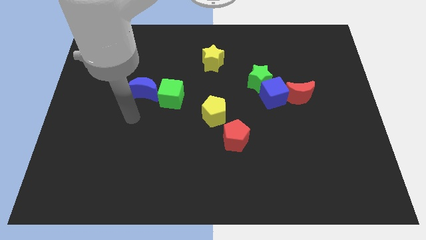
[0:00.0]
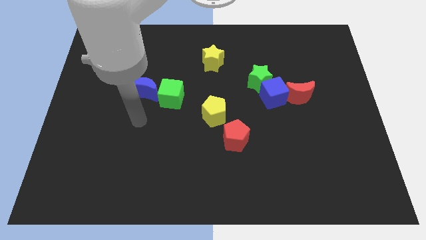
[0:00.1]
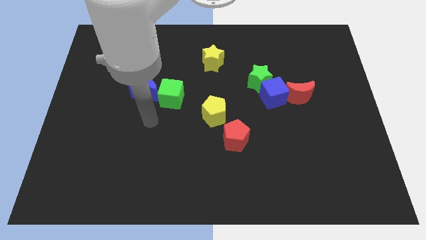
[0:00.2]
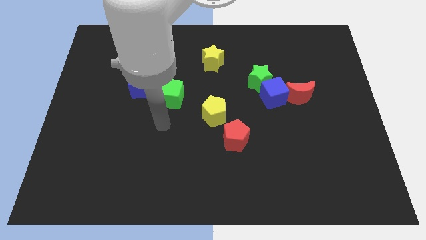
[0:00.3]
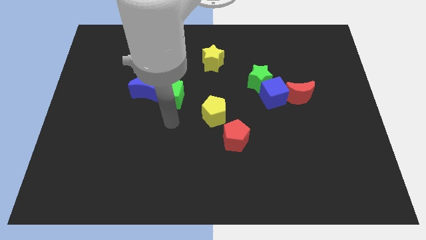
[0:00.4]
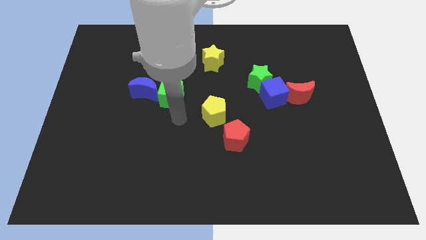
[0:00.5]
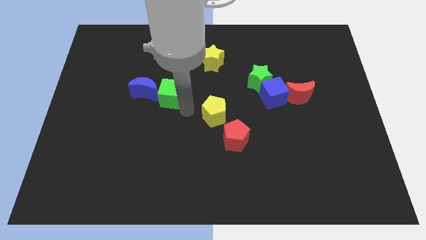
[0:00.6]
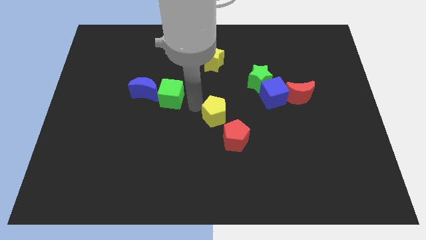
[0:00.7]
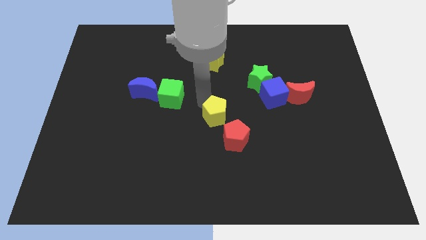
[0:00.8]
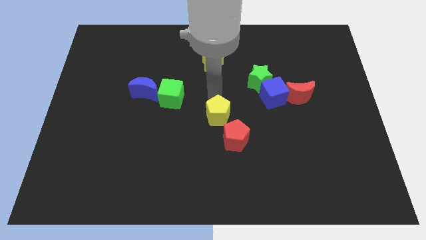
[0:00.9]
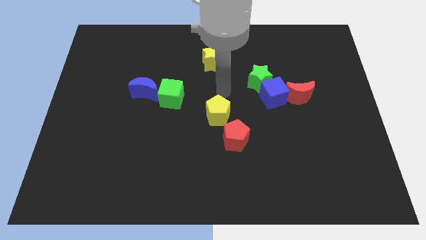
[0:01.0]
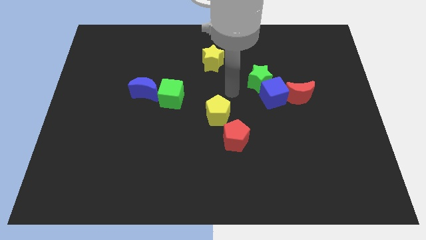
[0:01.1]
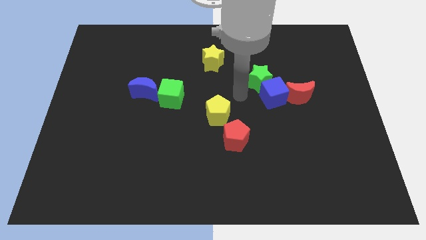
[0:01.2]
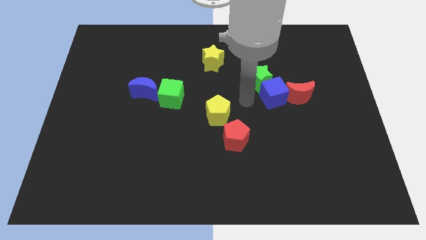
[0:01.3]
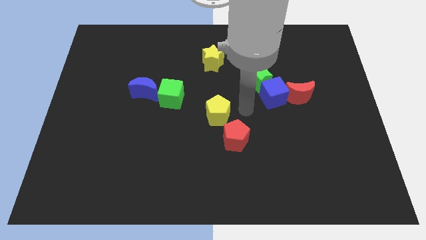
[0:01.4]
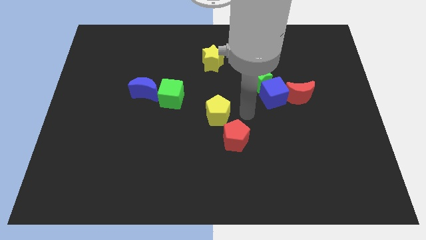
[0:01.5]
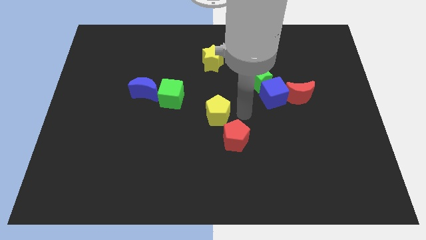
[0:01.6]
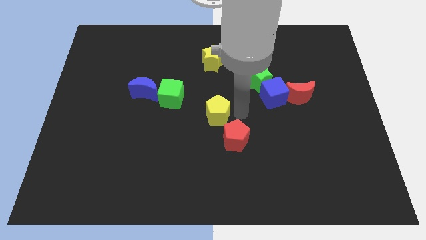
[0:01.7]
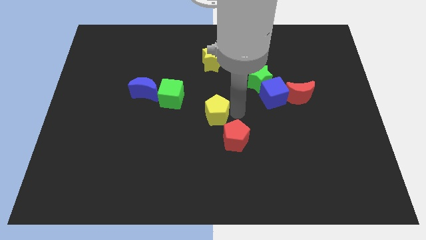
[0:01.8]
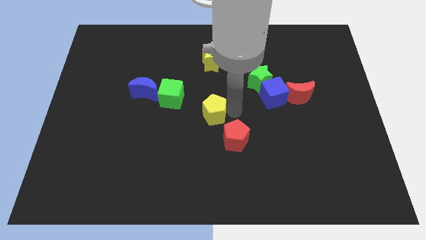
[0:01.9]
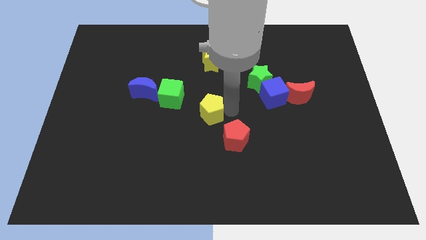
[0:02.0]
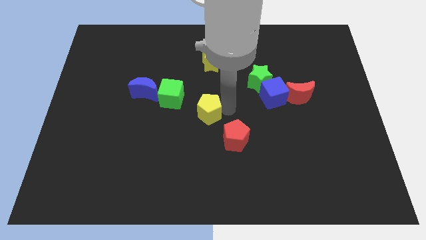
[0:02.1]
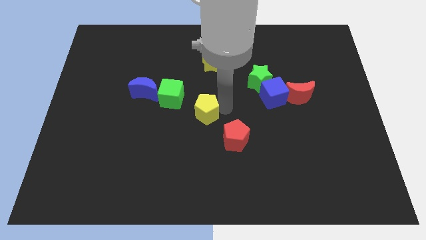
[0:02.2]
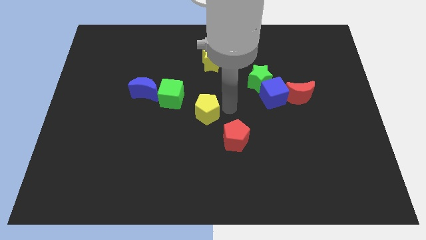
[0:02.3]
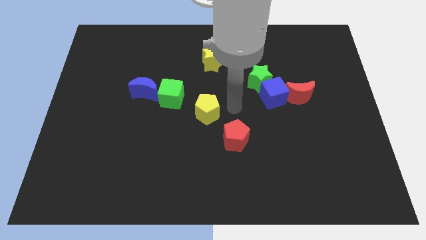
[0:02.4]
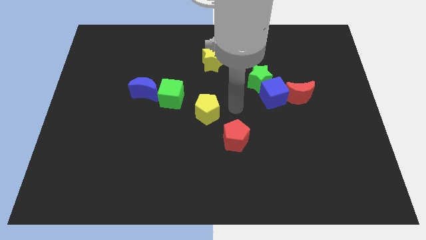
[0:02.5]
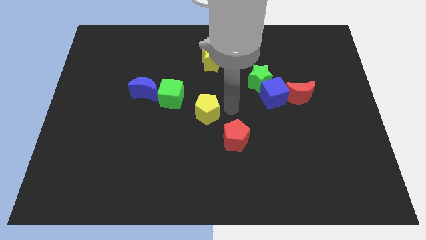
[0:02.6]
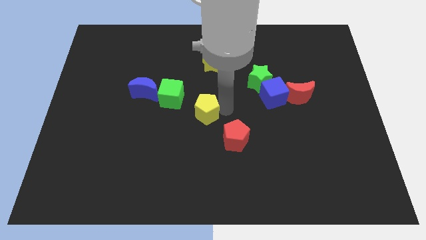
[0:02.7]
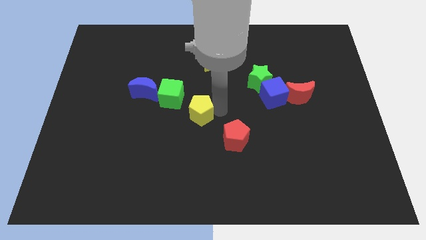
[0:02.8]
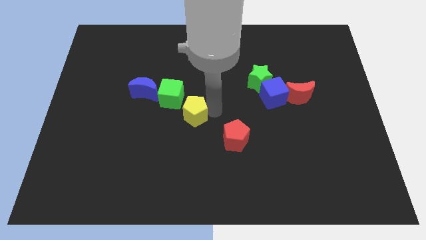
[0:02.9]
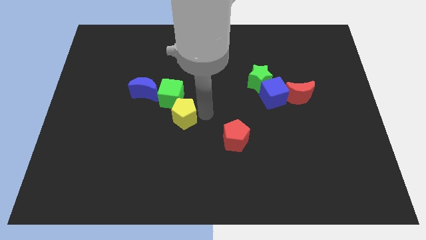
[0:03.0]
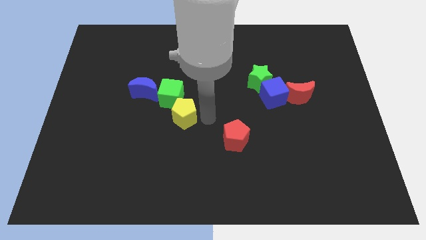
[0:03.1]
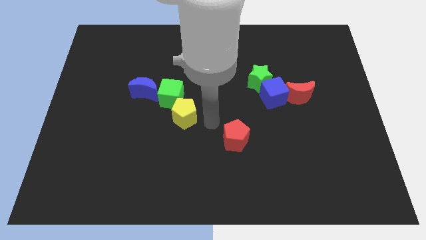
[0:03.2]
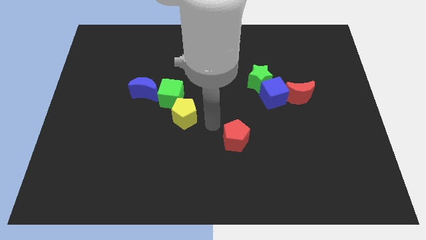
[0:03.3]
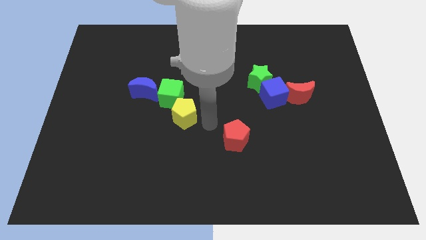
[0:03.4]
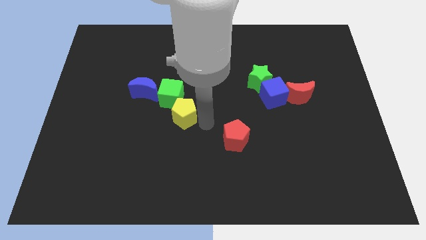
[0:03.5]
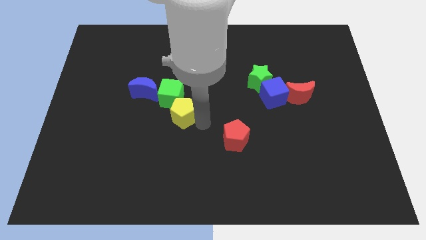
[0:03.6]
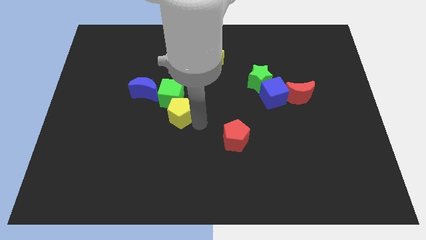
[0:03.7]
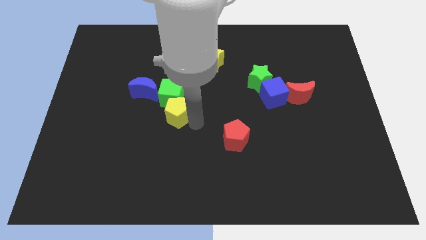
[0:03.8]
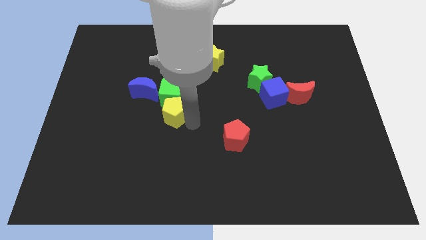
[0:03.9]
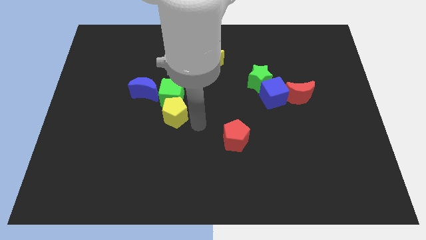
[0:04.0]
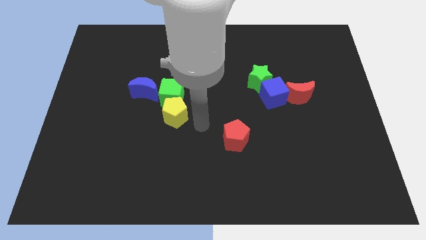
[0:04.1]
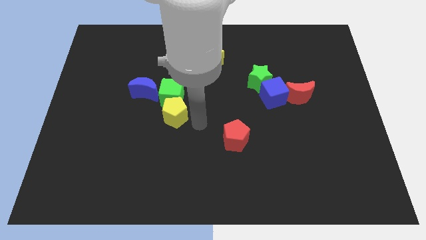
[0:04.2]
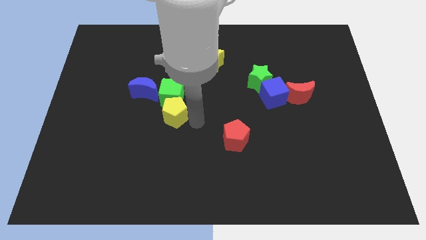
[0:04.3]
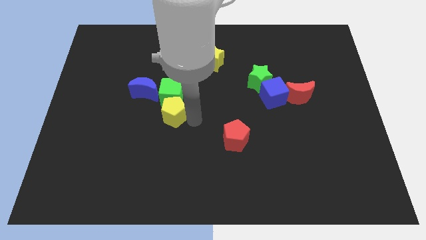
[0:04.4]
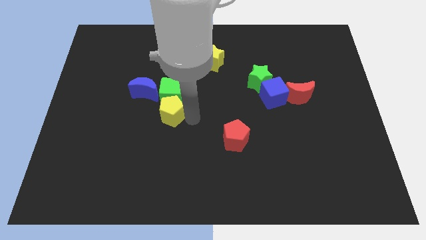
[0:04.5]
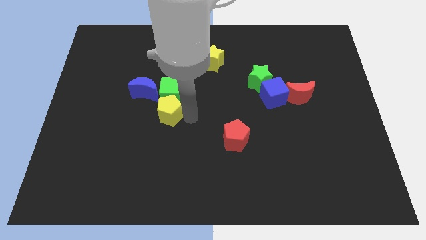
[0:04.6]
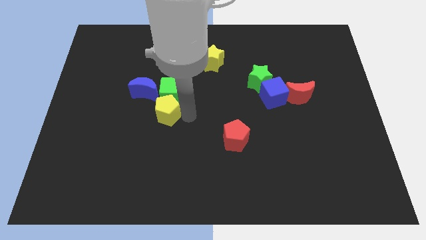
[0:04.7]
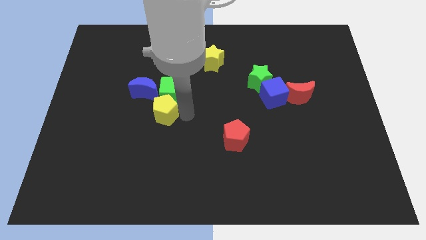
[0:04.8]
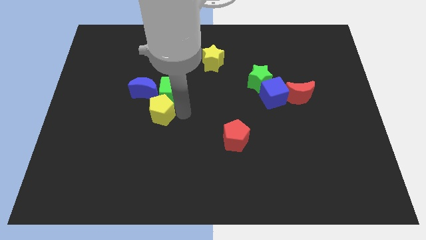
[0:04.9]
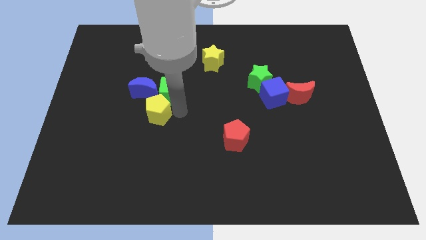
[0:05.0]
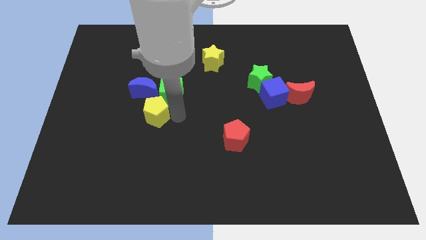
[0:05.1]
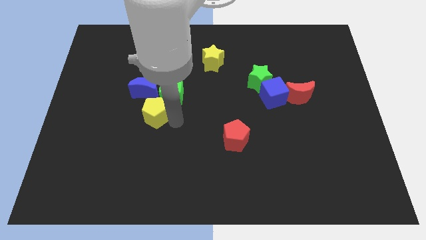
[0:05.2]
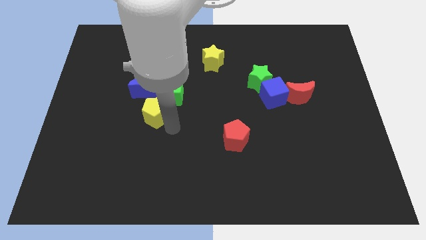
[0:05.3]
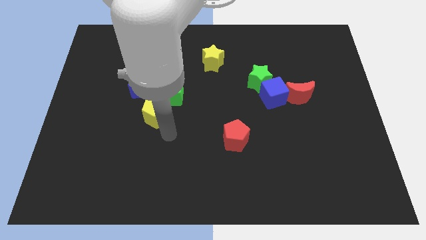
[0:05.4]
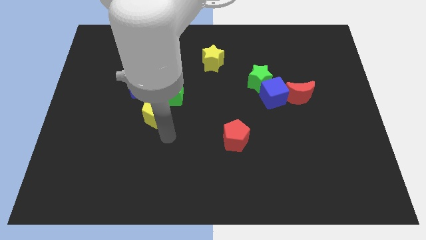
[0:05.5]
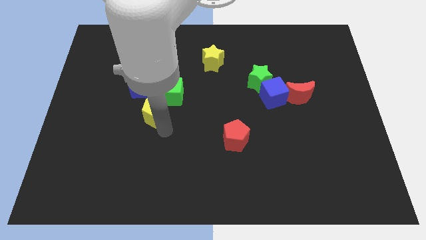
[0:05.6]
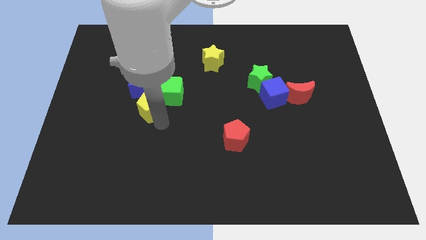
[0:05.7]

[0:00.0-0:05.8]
move the yellow pentagon close to the blue moon

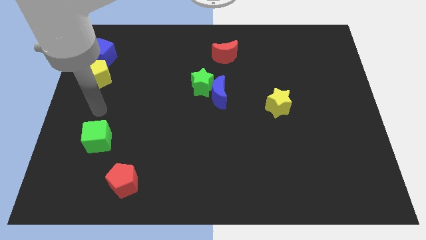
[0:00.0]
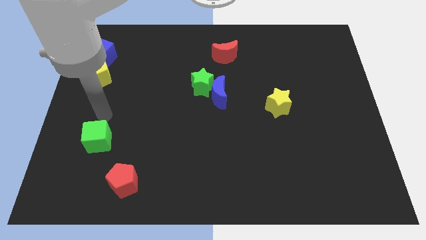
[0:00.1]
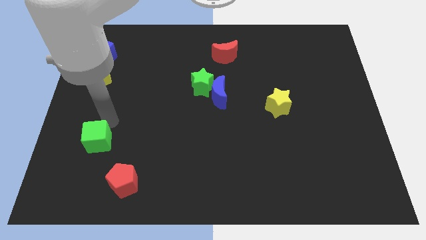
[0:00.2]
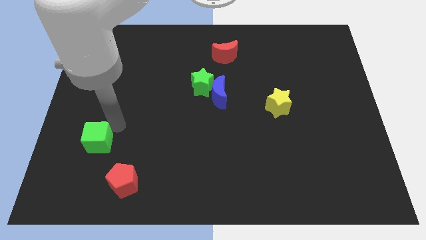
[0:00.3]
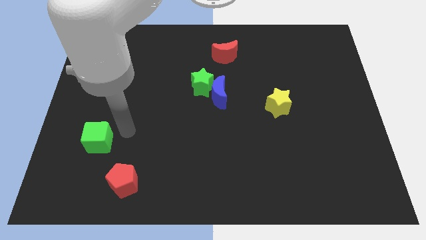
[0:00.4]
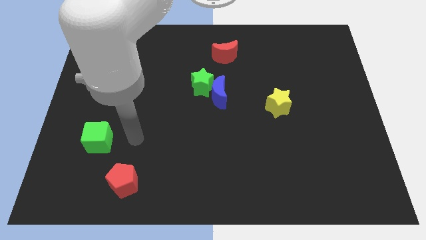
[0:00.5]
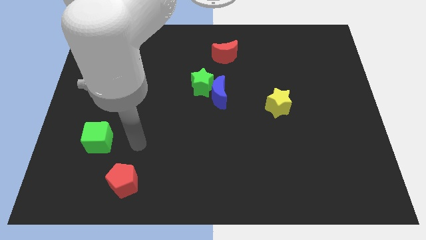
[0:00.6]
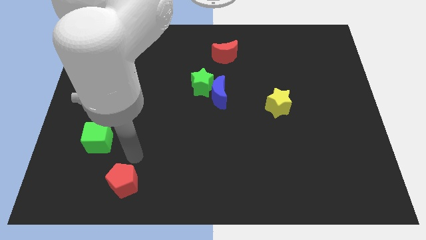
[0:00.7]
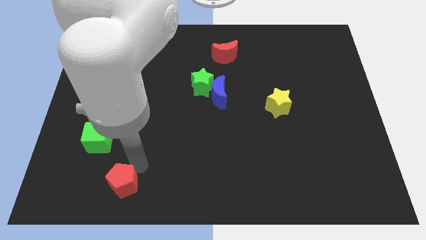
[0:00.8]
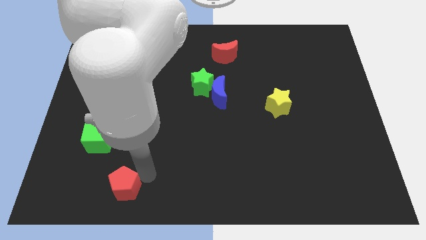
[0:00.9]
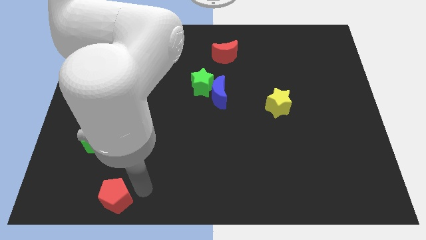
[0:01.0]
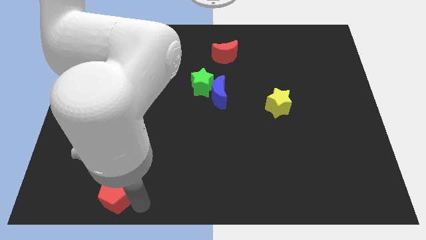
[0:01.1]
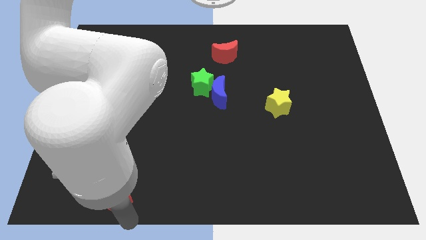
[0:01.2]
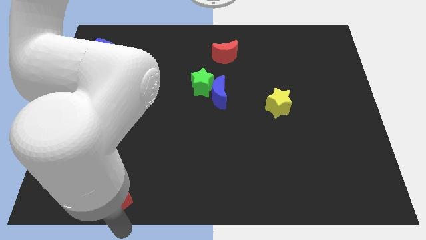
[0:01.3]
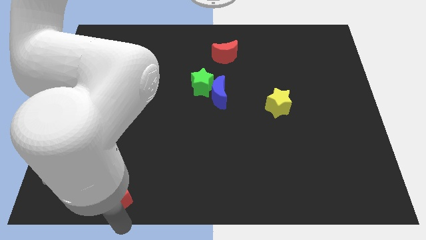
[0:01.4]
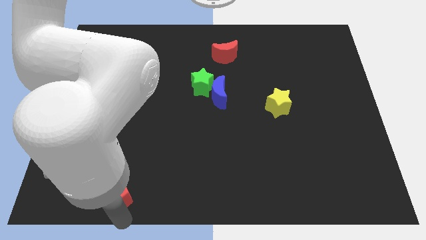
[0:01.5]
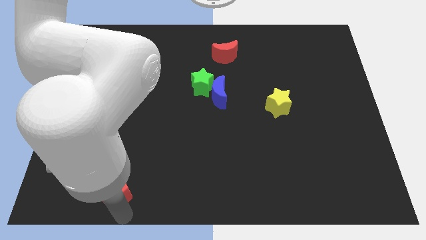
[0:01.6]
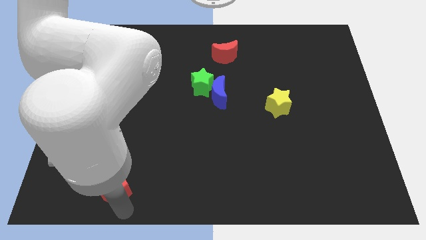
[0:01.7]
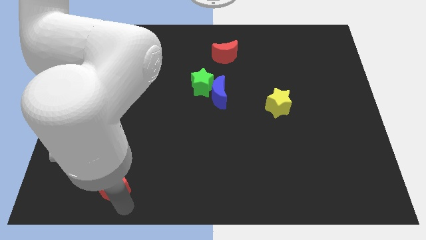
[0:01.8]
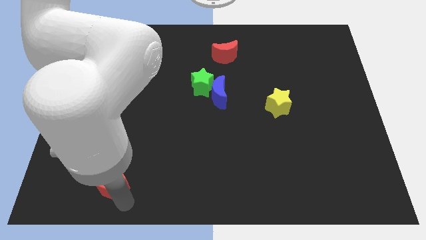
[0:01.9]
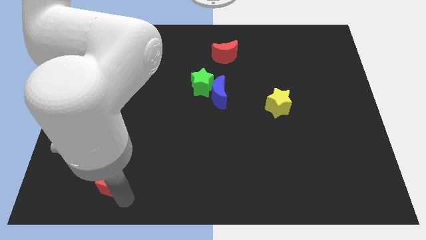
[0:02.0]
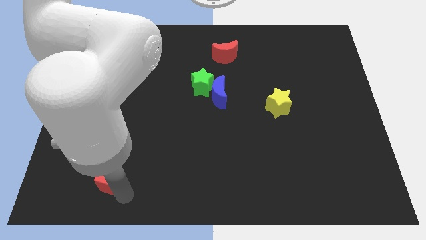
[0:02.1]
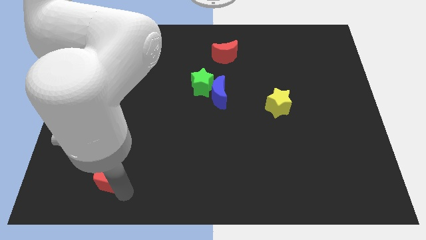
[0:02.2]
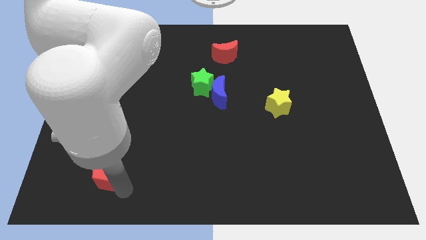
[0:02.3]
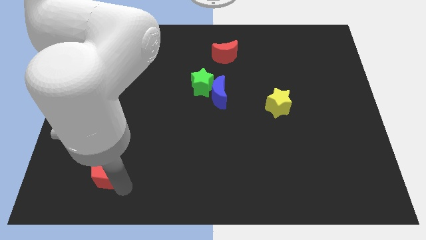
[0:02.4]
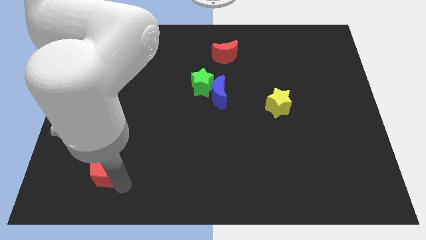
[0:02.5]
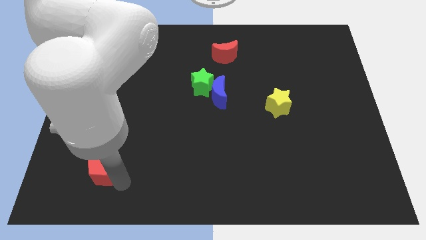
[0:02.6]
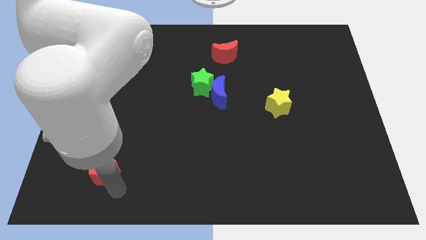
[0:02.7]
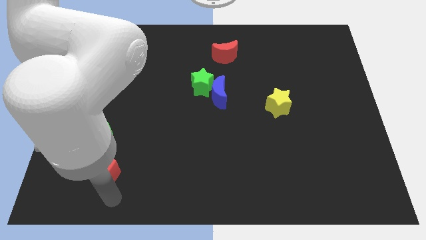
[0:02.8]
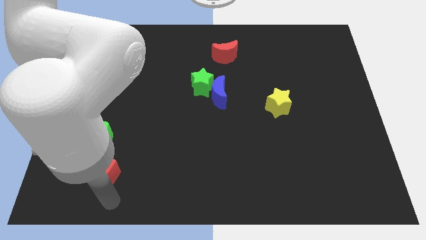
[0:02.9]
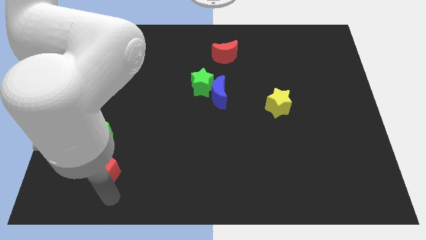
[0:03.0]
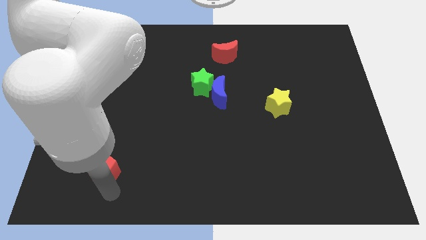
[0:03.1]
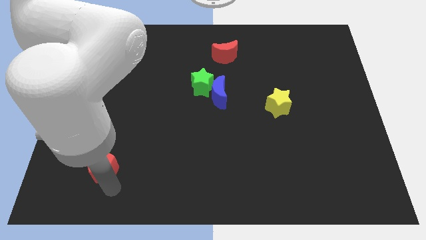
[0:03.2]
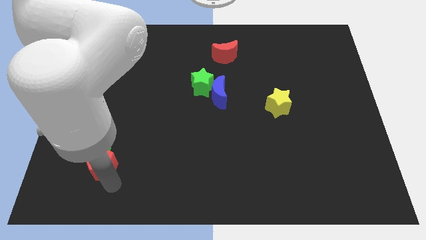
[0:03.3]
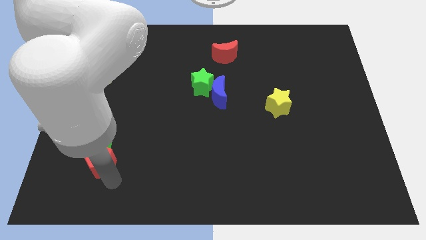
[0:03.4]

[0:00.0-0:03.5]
push the red pentagon next to the green cube
